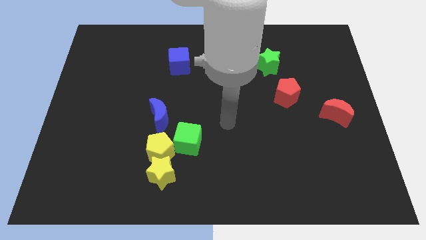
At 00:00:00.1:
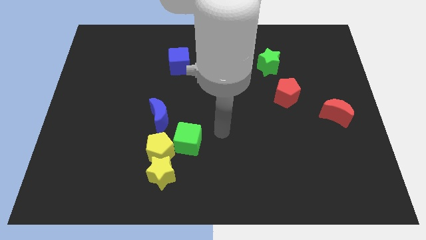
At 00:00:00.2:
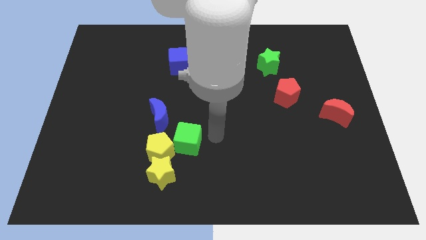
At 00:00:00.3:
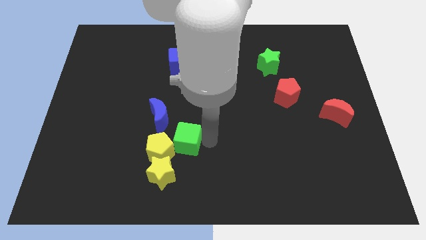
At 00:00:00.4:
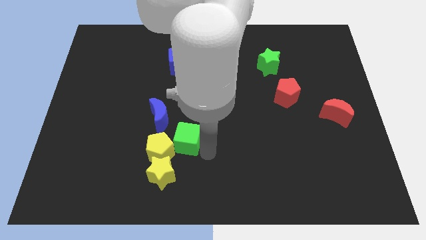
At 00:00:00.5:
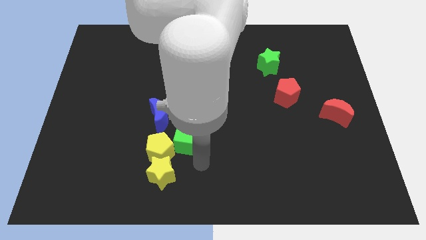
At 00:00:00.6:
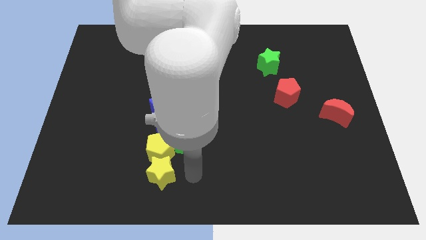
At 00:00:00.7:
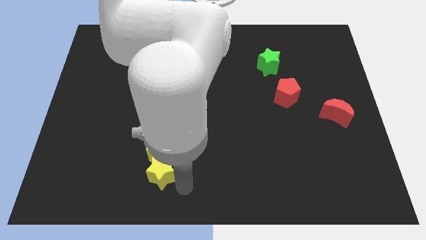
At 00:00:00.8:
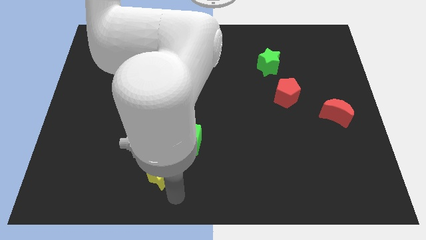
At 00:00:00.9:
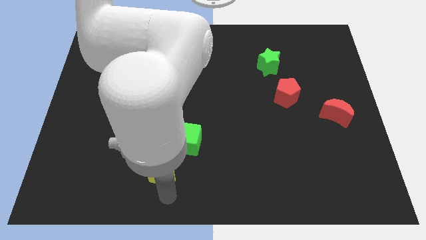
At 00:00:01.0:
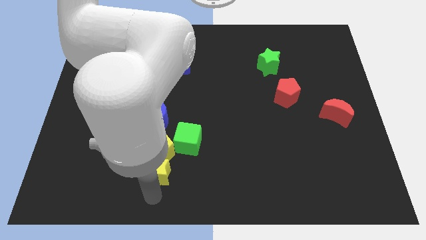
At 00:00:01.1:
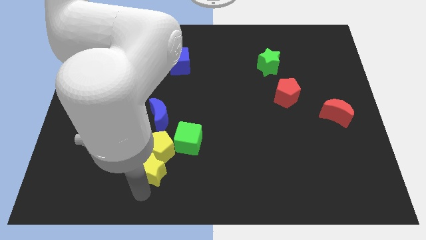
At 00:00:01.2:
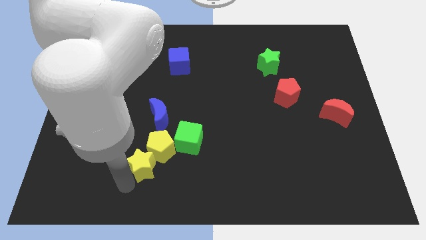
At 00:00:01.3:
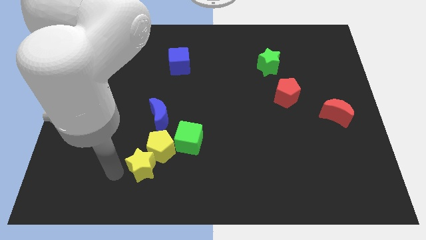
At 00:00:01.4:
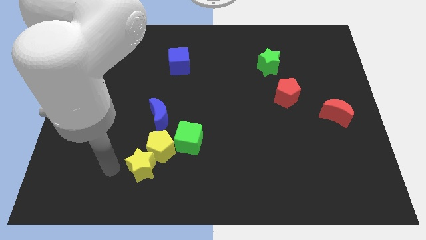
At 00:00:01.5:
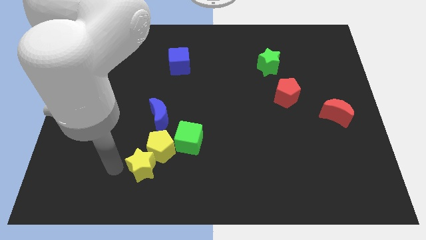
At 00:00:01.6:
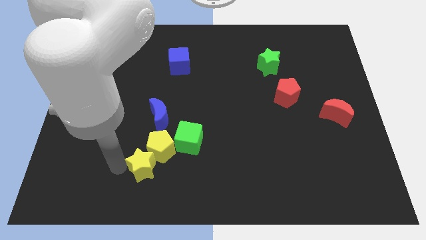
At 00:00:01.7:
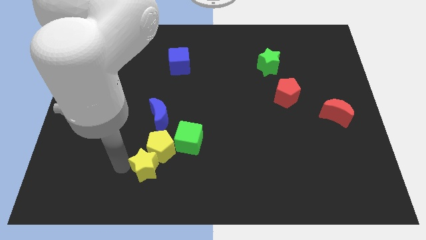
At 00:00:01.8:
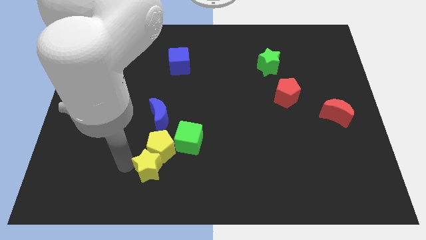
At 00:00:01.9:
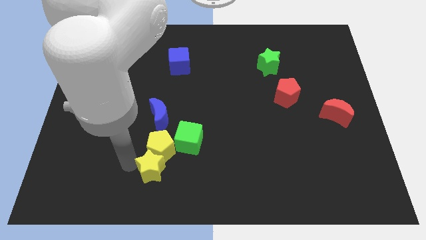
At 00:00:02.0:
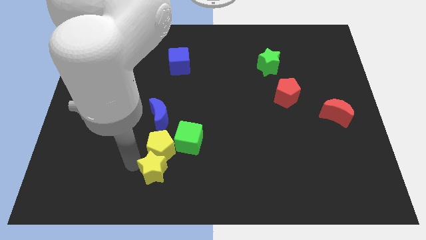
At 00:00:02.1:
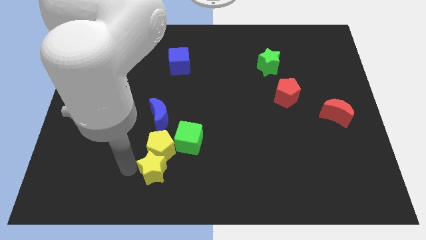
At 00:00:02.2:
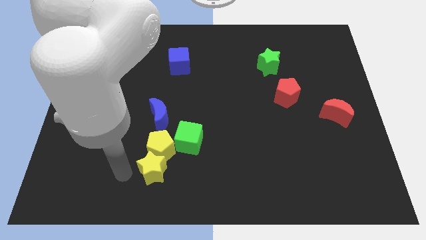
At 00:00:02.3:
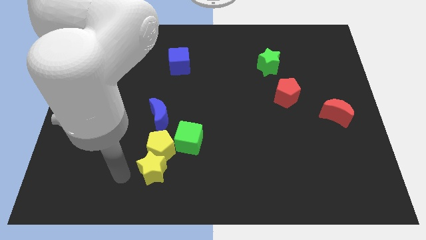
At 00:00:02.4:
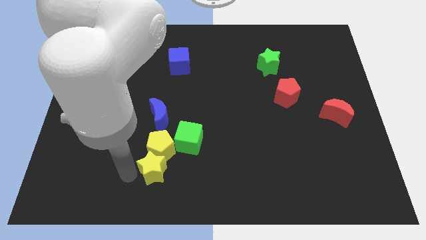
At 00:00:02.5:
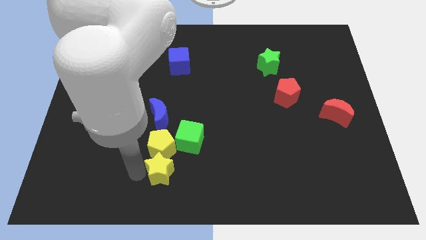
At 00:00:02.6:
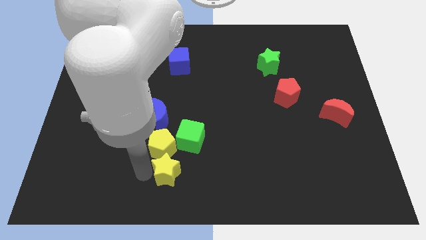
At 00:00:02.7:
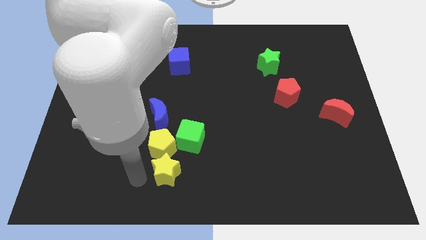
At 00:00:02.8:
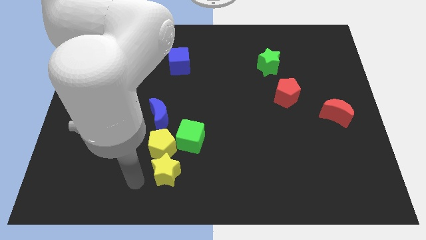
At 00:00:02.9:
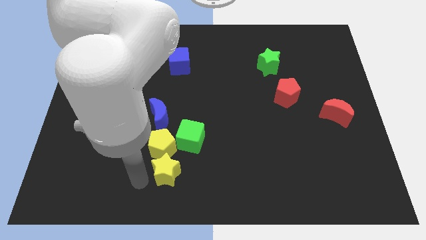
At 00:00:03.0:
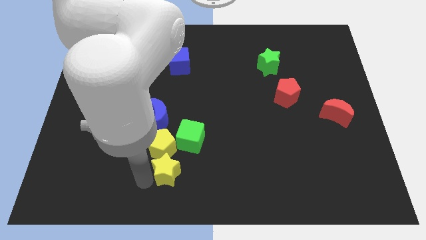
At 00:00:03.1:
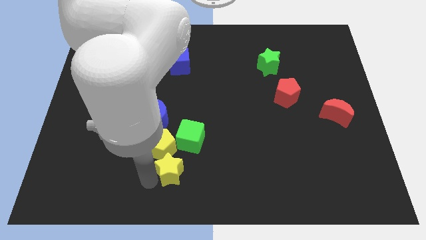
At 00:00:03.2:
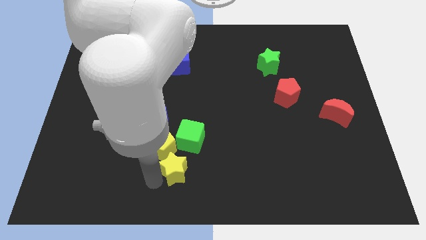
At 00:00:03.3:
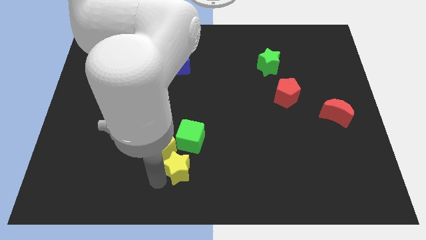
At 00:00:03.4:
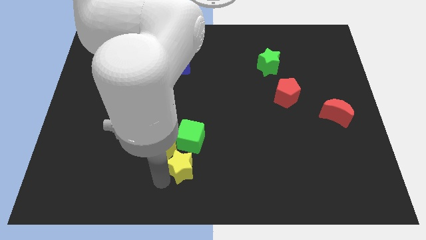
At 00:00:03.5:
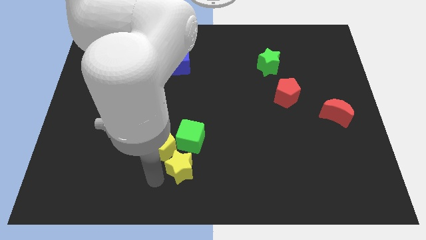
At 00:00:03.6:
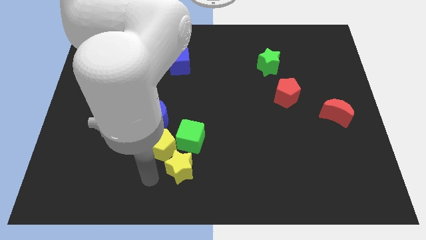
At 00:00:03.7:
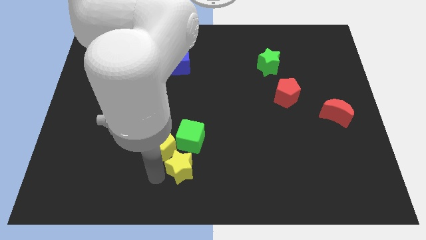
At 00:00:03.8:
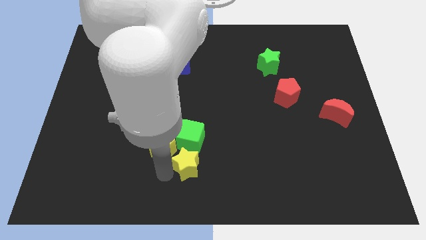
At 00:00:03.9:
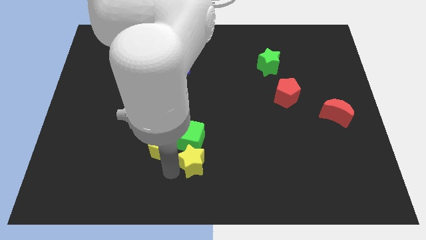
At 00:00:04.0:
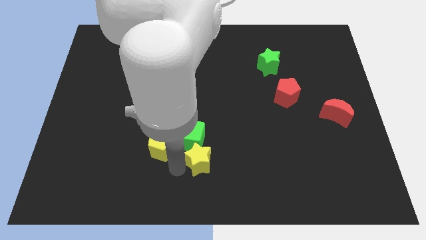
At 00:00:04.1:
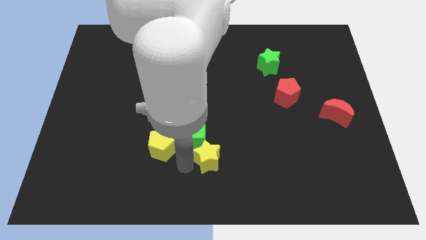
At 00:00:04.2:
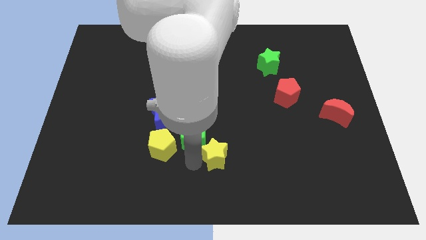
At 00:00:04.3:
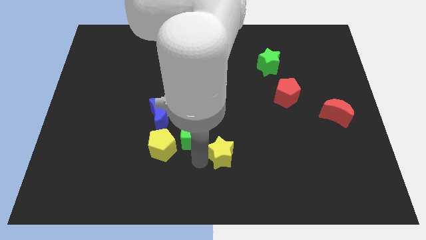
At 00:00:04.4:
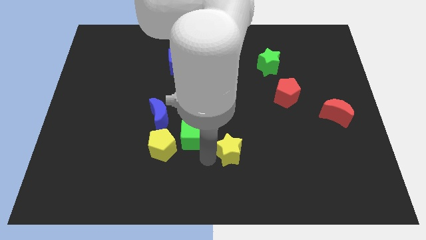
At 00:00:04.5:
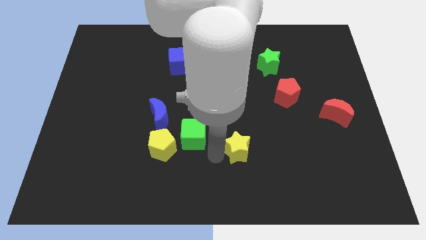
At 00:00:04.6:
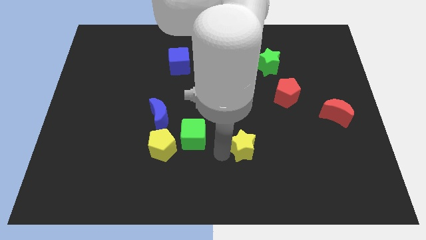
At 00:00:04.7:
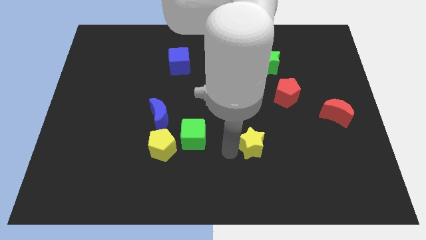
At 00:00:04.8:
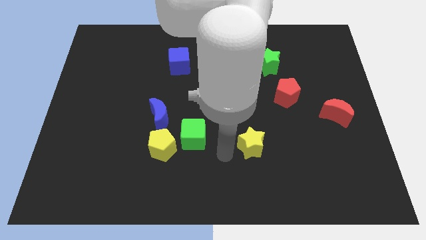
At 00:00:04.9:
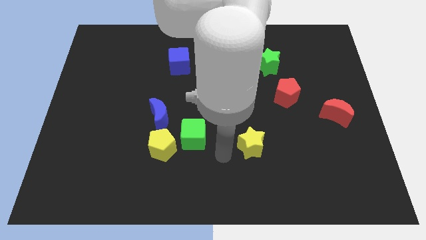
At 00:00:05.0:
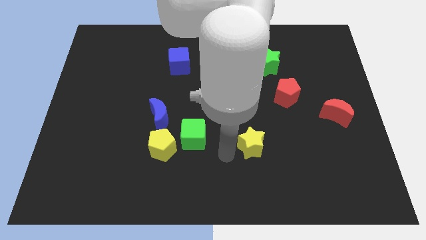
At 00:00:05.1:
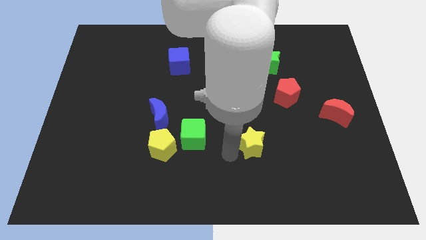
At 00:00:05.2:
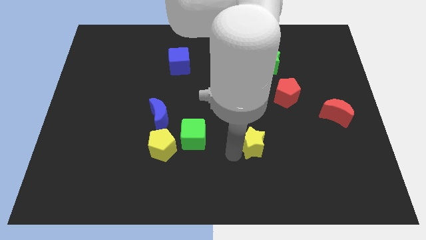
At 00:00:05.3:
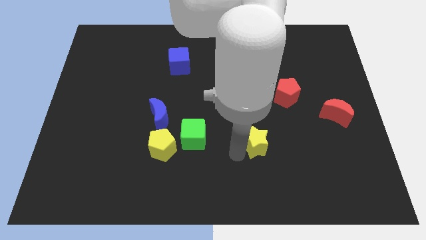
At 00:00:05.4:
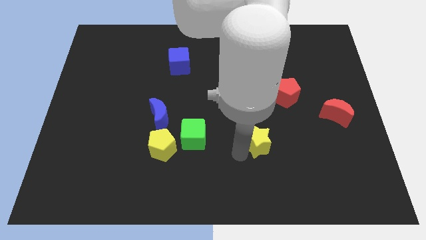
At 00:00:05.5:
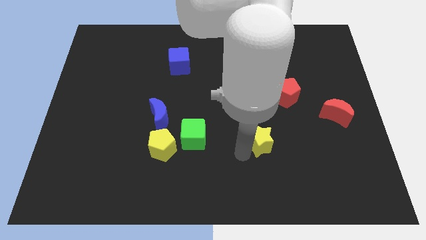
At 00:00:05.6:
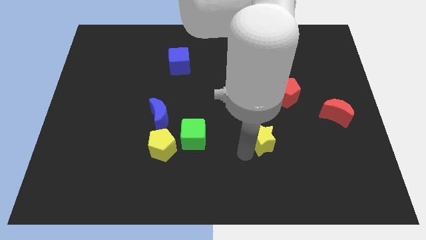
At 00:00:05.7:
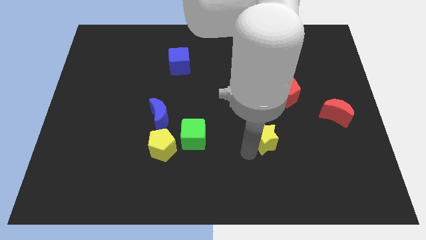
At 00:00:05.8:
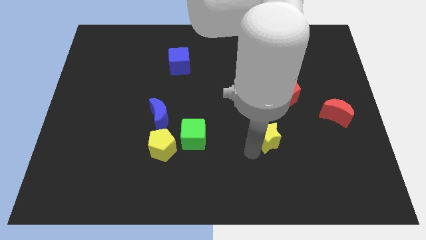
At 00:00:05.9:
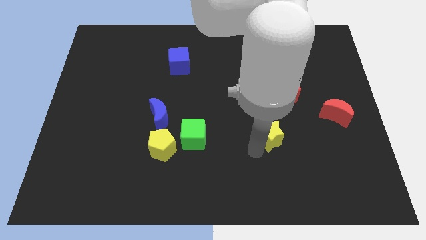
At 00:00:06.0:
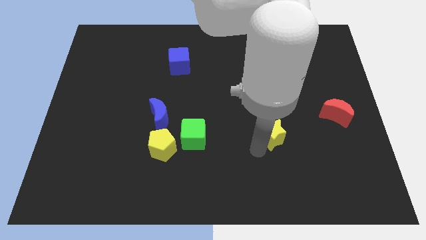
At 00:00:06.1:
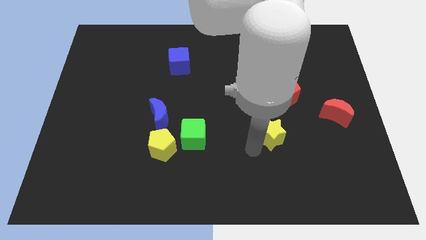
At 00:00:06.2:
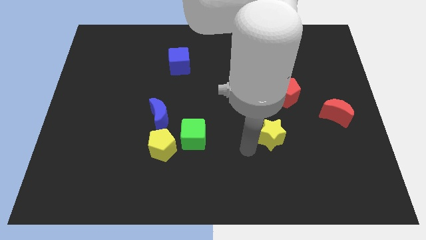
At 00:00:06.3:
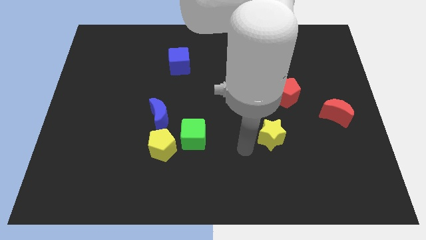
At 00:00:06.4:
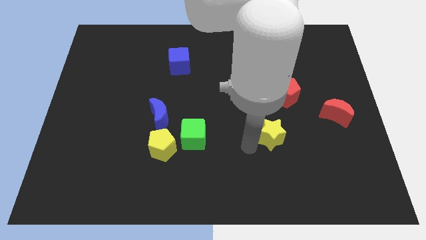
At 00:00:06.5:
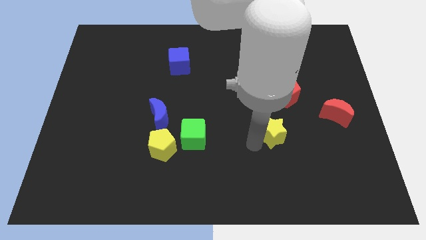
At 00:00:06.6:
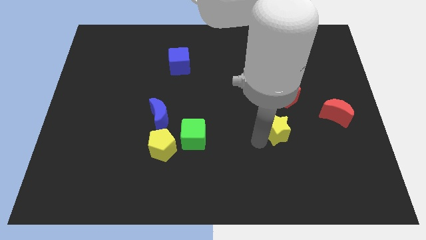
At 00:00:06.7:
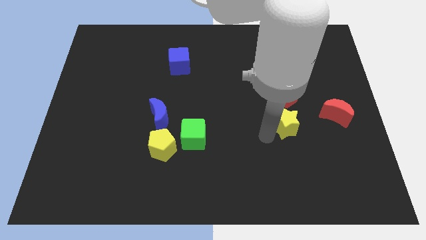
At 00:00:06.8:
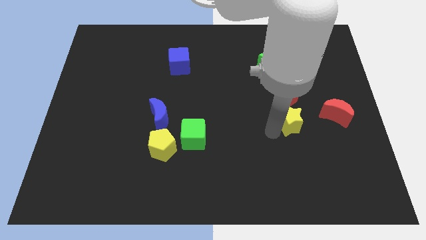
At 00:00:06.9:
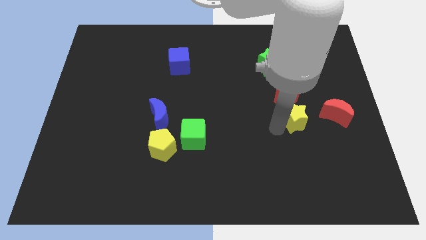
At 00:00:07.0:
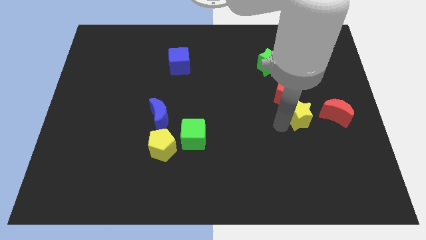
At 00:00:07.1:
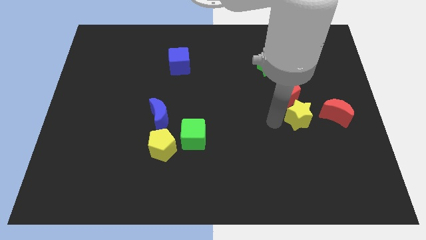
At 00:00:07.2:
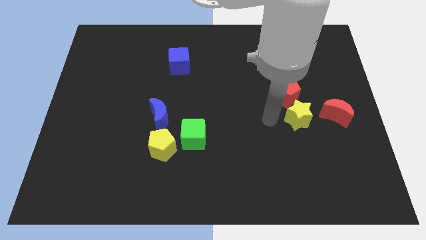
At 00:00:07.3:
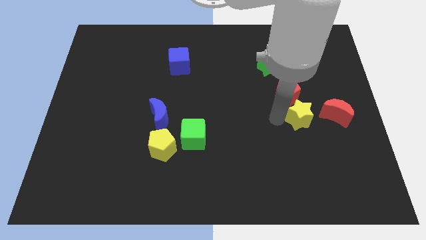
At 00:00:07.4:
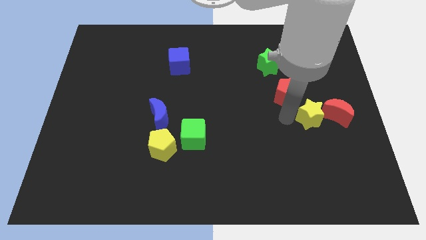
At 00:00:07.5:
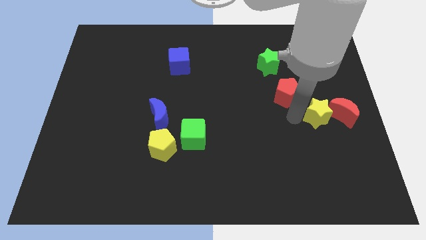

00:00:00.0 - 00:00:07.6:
push the yellow star to the red moon
